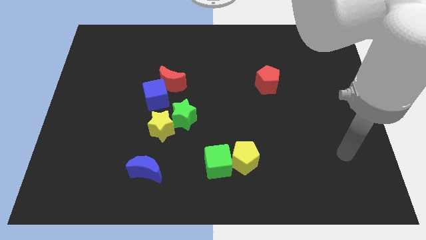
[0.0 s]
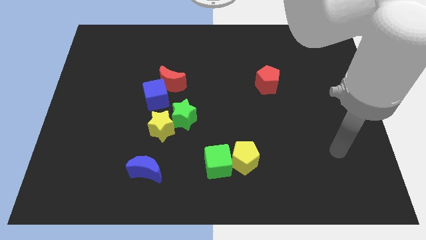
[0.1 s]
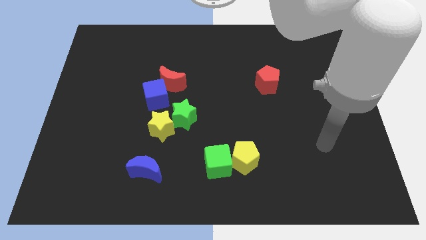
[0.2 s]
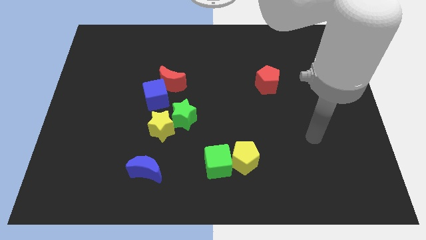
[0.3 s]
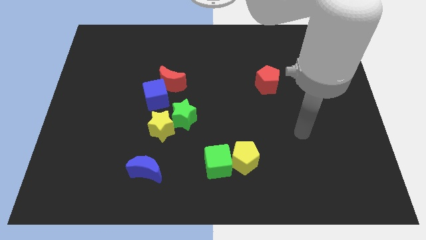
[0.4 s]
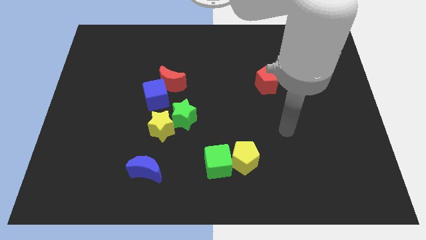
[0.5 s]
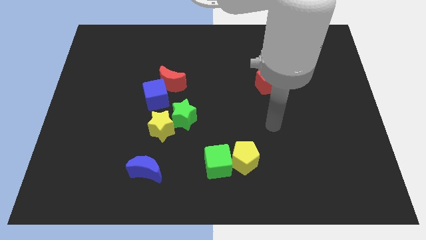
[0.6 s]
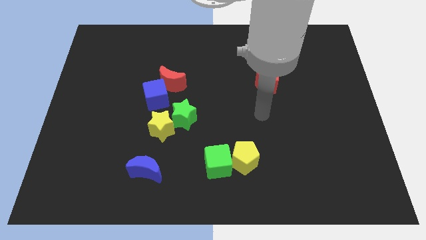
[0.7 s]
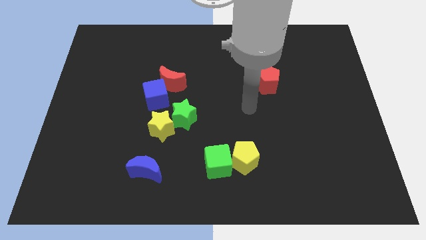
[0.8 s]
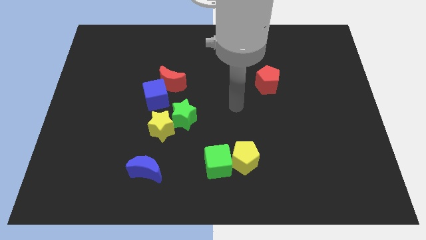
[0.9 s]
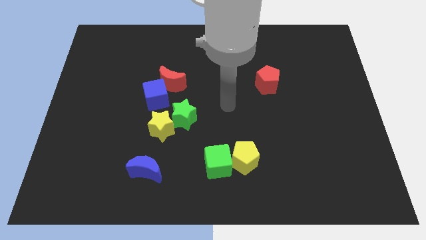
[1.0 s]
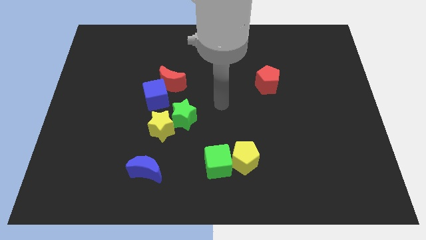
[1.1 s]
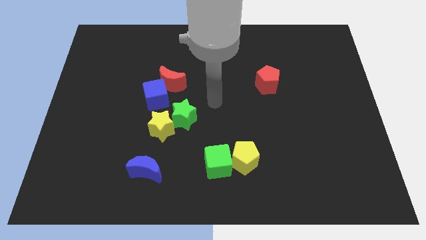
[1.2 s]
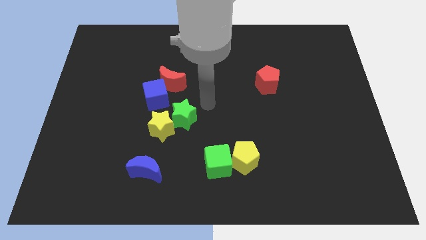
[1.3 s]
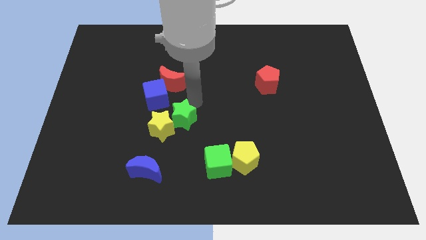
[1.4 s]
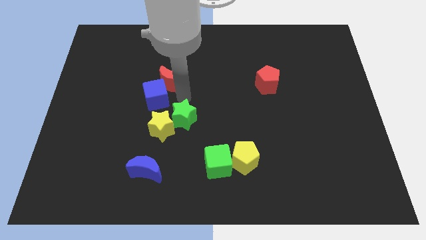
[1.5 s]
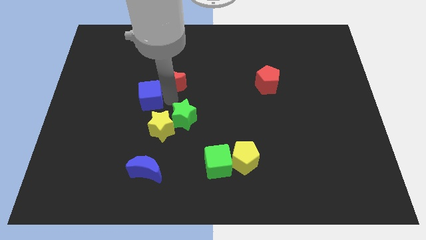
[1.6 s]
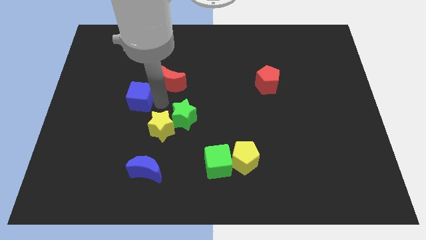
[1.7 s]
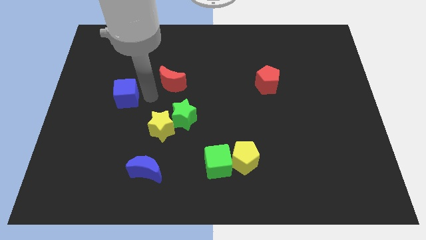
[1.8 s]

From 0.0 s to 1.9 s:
move the red moon away from the blue cube

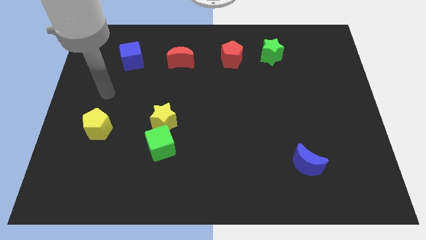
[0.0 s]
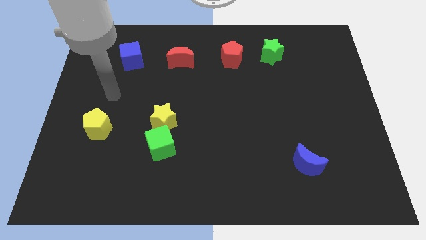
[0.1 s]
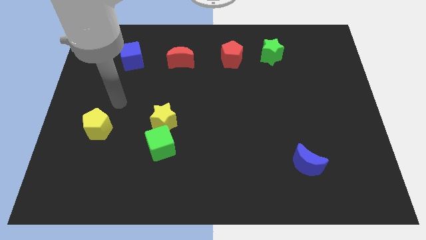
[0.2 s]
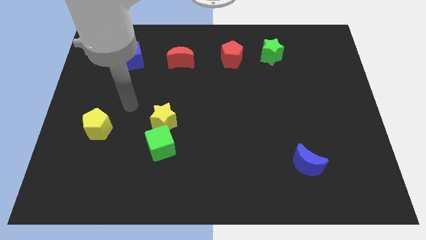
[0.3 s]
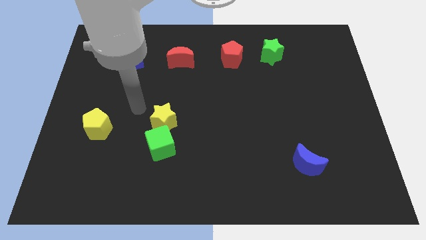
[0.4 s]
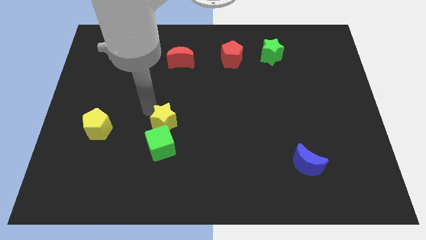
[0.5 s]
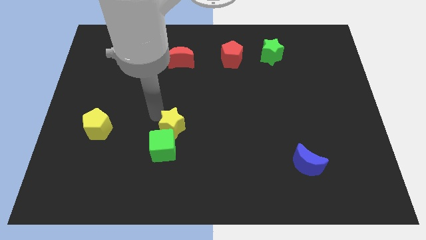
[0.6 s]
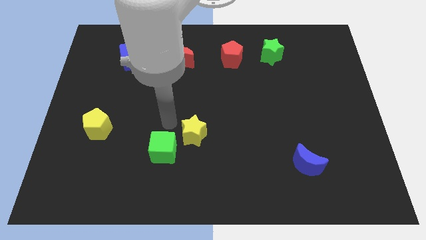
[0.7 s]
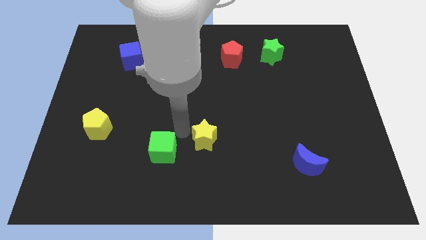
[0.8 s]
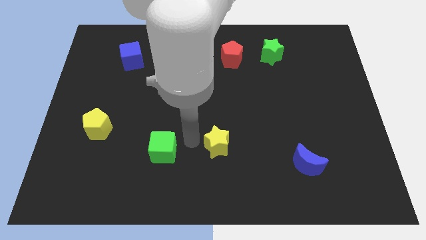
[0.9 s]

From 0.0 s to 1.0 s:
separate the green cube from the yellow star

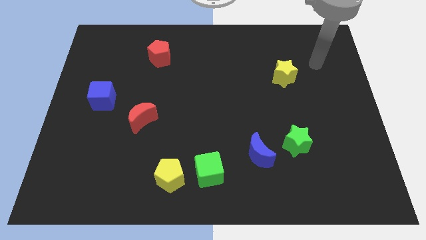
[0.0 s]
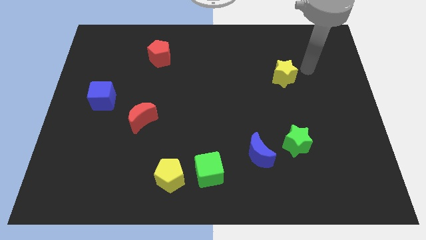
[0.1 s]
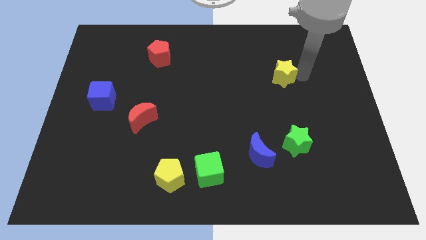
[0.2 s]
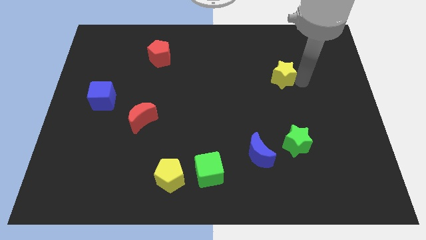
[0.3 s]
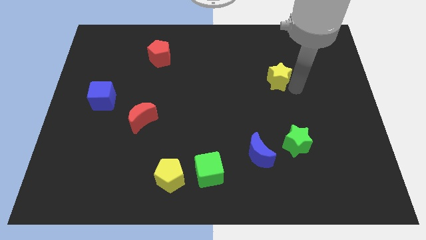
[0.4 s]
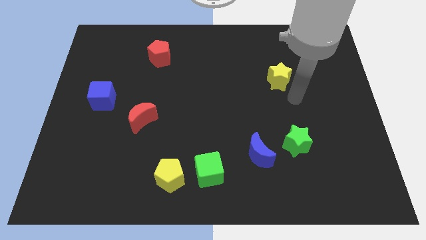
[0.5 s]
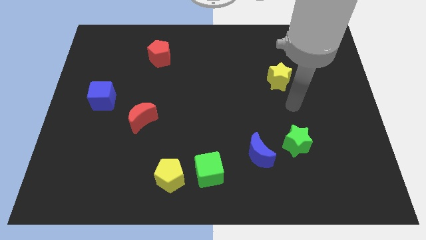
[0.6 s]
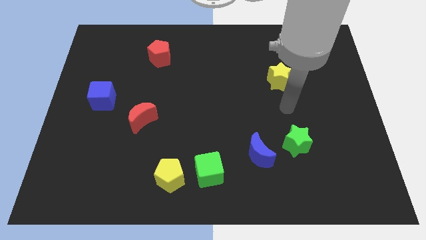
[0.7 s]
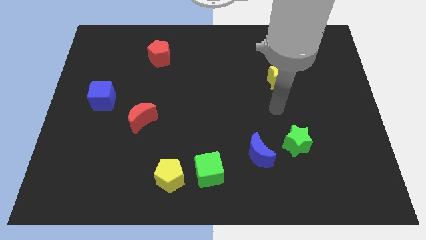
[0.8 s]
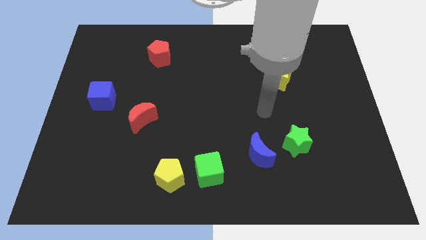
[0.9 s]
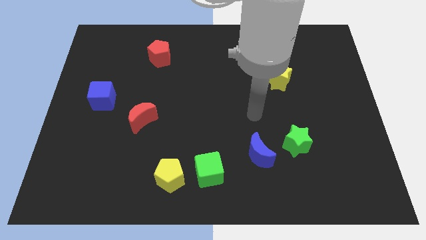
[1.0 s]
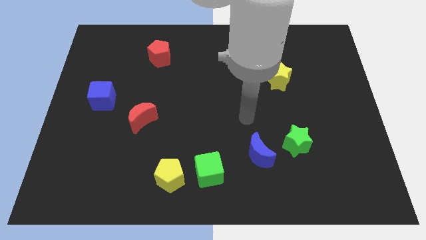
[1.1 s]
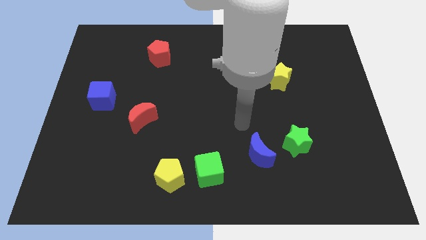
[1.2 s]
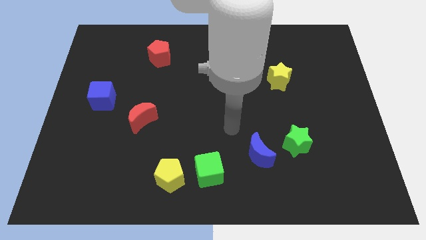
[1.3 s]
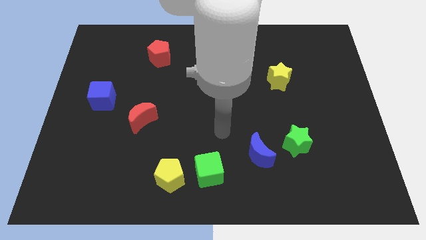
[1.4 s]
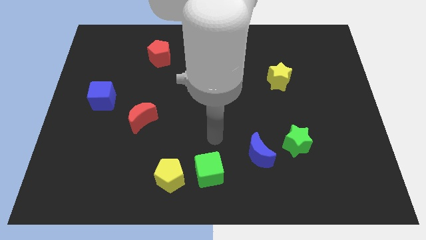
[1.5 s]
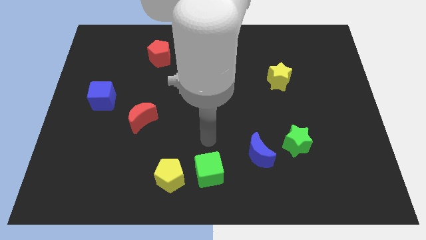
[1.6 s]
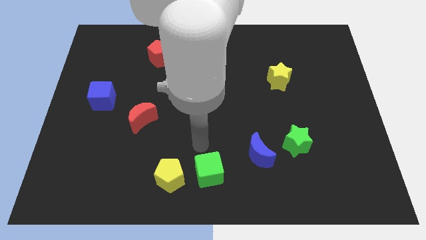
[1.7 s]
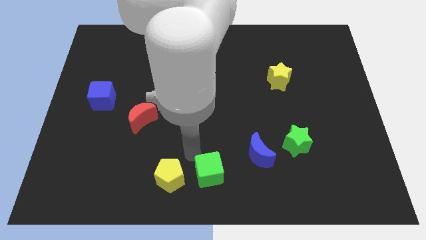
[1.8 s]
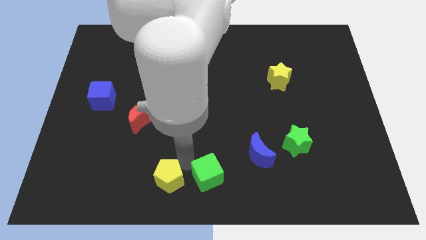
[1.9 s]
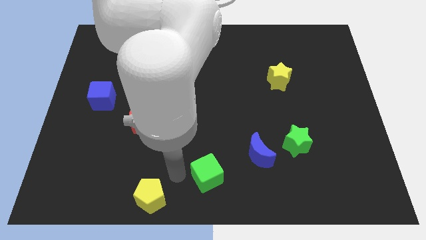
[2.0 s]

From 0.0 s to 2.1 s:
move the green cube away from the yellow pentagon

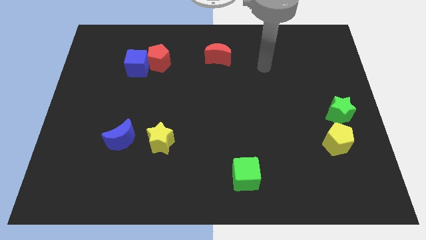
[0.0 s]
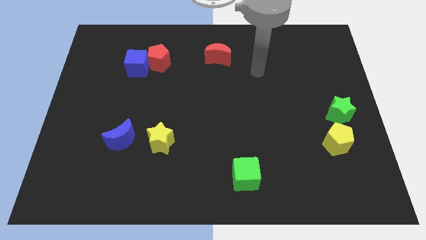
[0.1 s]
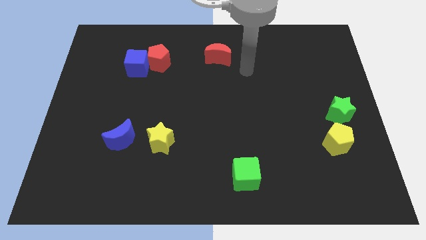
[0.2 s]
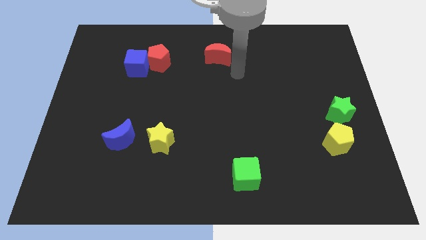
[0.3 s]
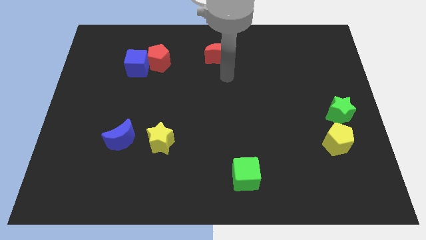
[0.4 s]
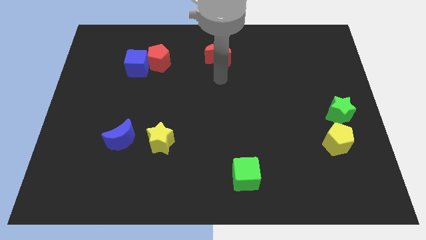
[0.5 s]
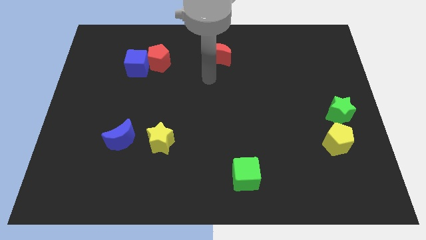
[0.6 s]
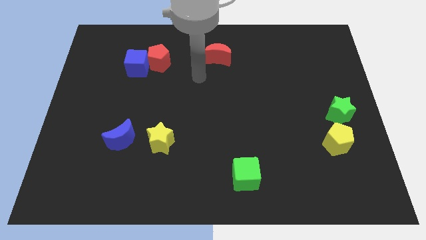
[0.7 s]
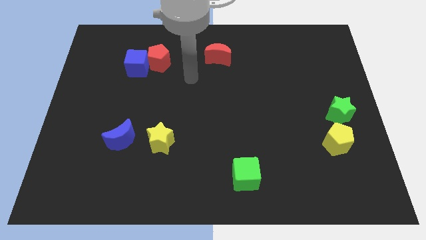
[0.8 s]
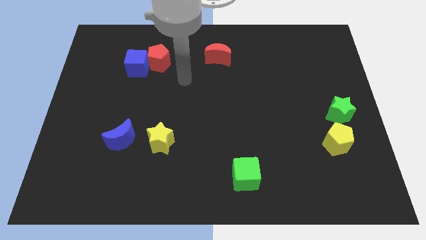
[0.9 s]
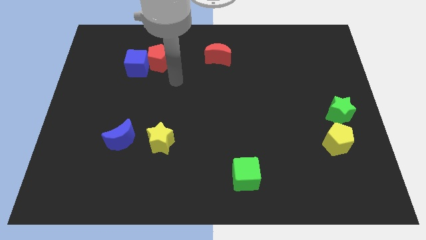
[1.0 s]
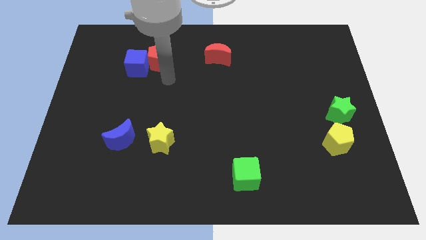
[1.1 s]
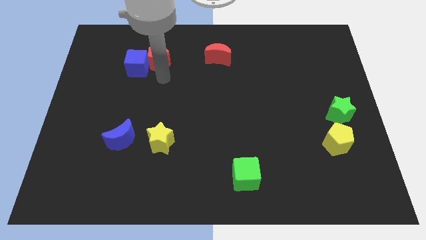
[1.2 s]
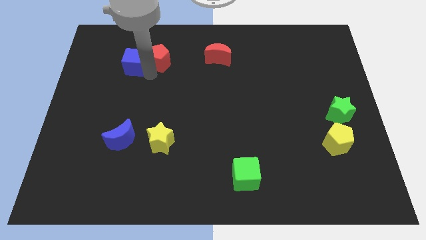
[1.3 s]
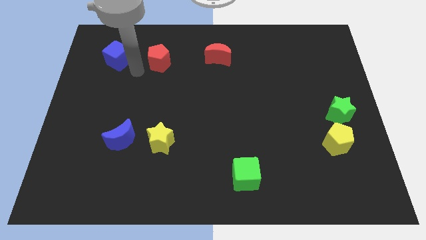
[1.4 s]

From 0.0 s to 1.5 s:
separate the red pentagon from the blue cube

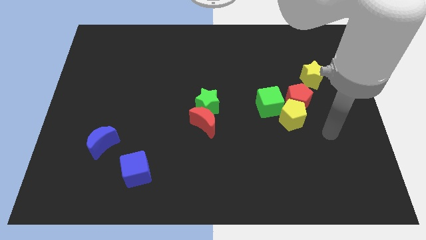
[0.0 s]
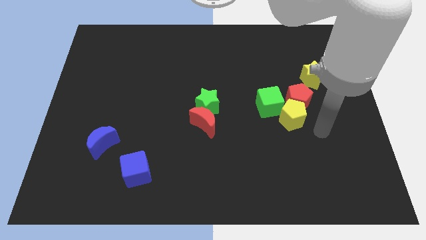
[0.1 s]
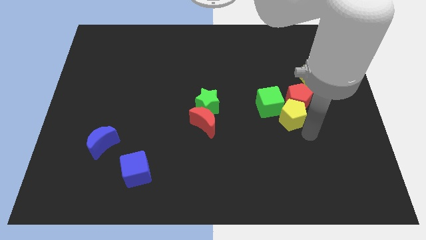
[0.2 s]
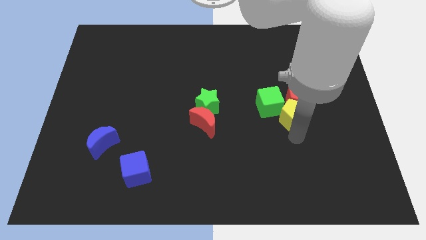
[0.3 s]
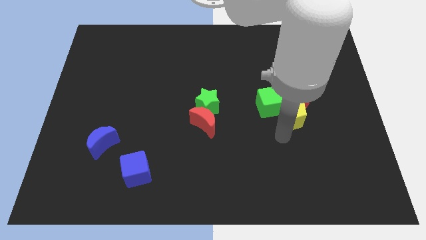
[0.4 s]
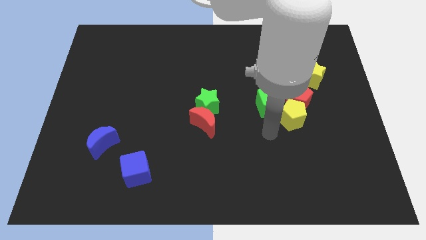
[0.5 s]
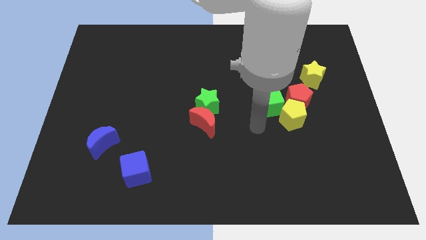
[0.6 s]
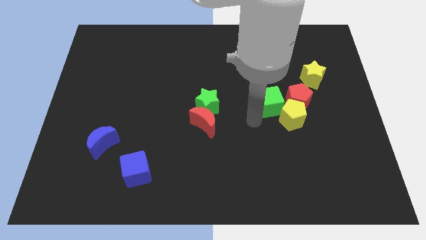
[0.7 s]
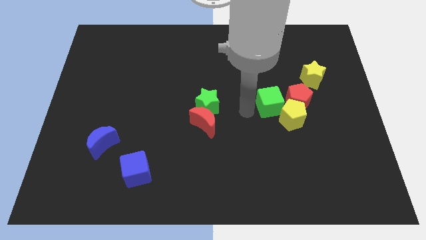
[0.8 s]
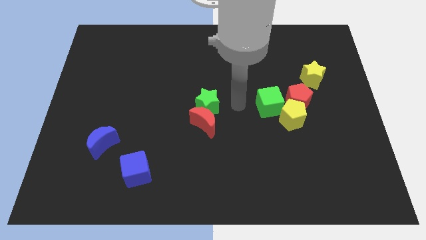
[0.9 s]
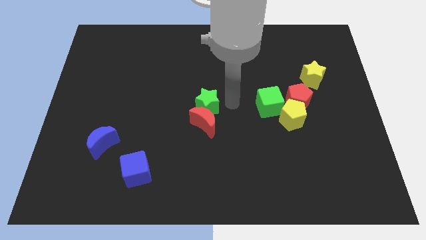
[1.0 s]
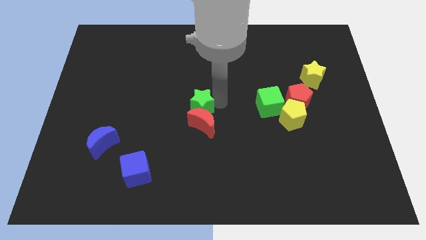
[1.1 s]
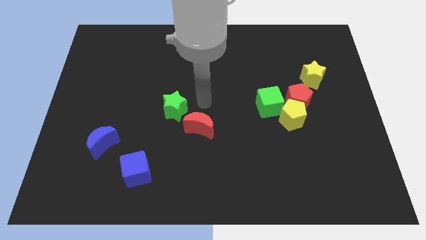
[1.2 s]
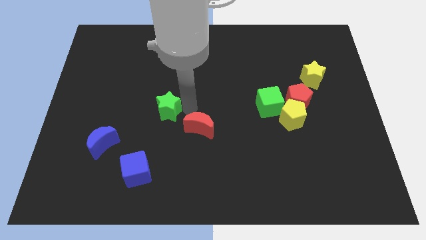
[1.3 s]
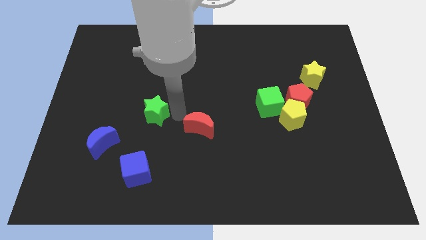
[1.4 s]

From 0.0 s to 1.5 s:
separate the red moon from the green star

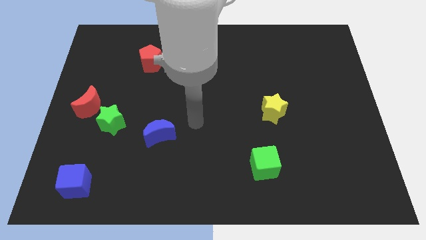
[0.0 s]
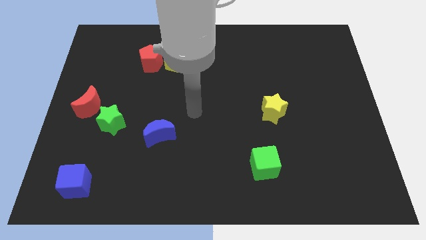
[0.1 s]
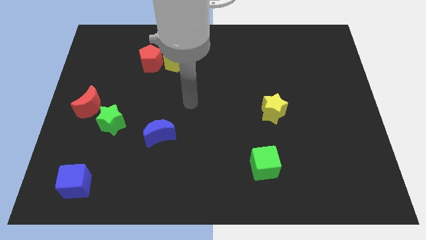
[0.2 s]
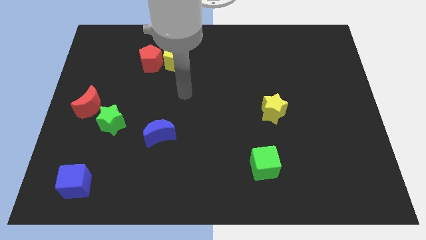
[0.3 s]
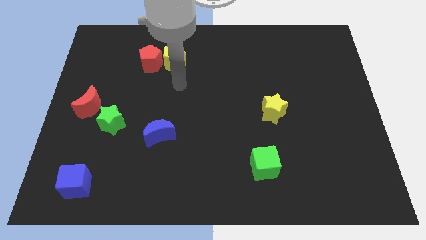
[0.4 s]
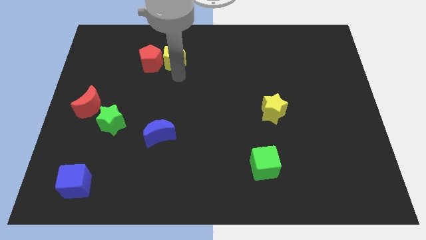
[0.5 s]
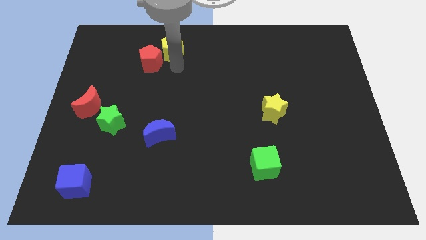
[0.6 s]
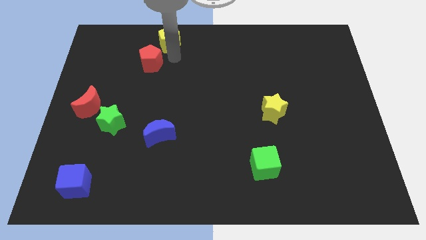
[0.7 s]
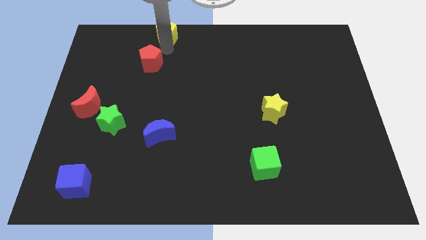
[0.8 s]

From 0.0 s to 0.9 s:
move the red pentagon away from the yellow pentagon

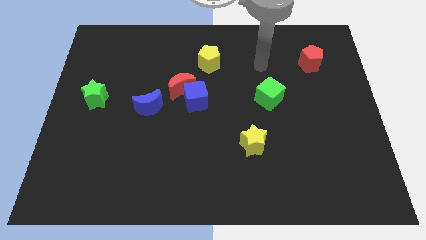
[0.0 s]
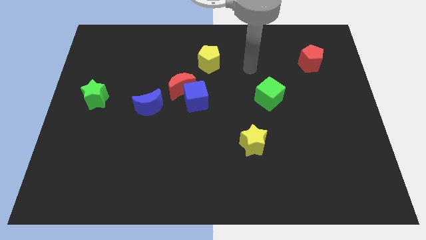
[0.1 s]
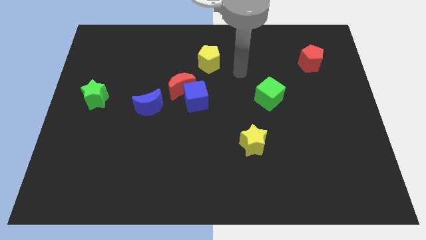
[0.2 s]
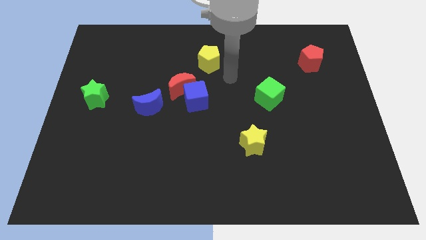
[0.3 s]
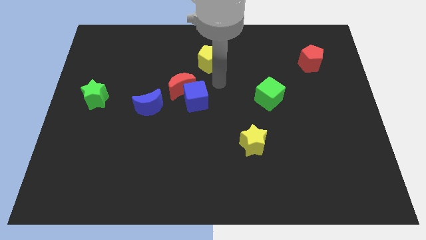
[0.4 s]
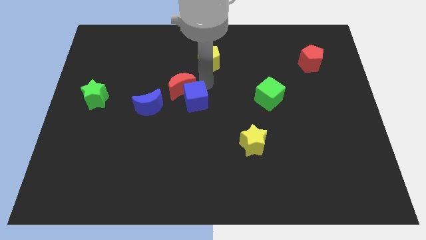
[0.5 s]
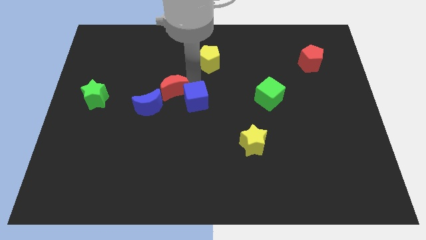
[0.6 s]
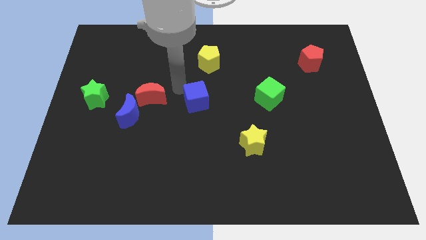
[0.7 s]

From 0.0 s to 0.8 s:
move the blue cube away from the red moon
